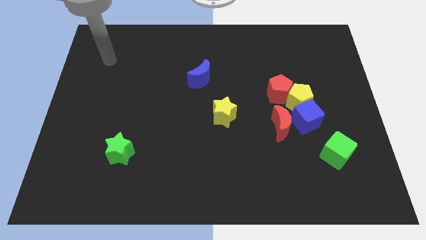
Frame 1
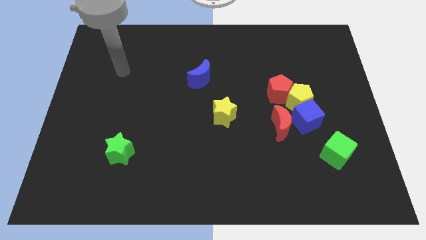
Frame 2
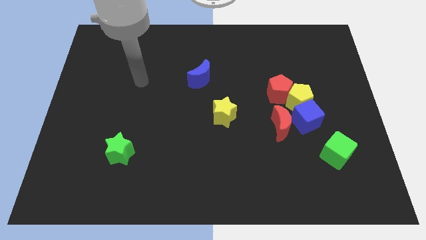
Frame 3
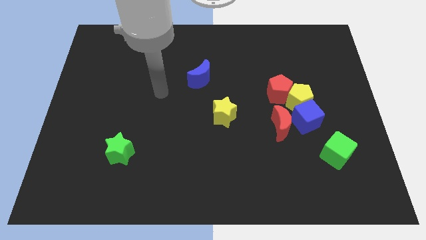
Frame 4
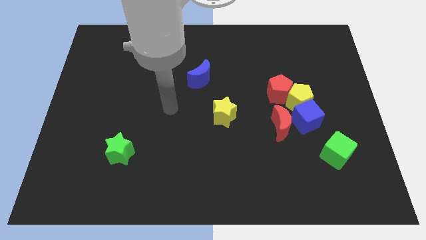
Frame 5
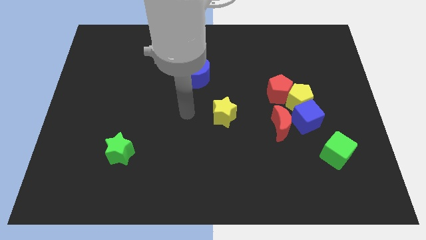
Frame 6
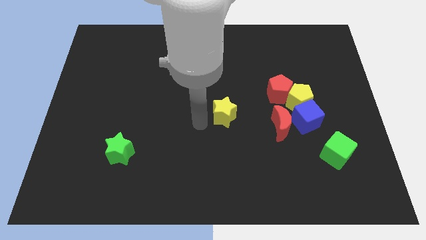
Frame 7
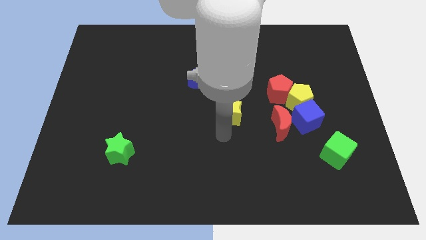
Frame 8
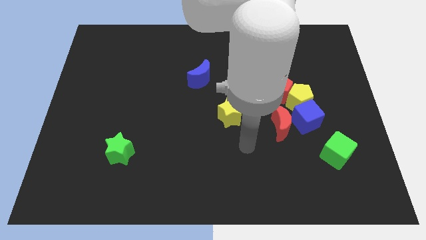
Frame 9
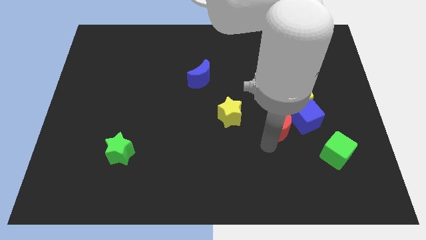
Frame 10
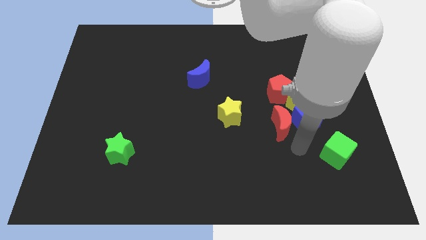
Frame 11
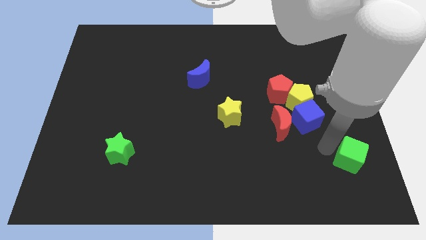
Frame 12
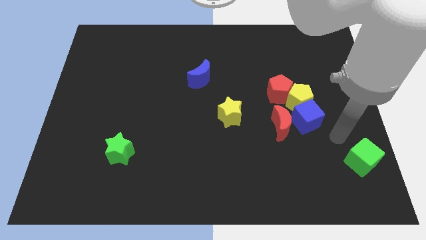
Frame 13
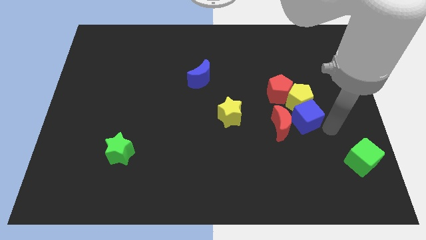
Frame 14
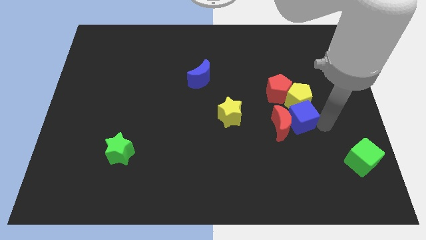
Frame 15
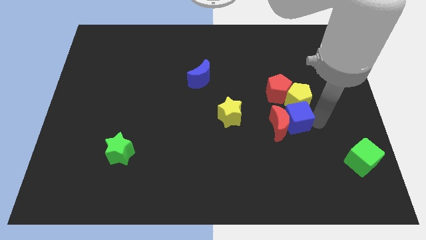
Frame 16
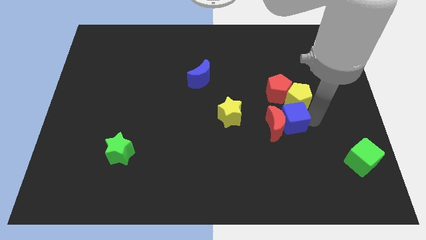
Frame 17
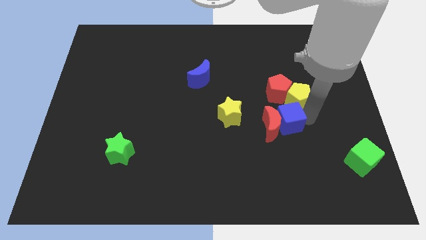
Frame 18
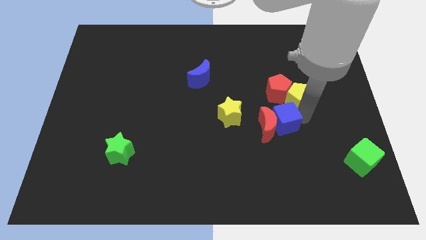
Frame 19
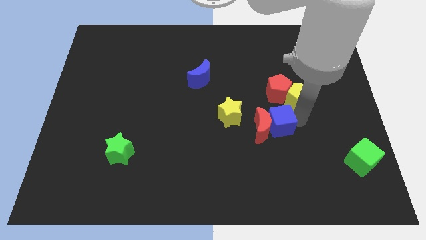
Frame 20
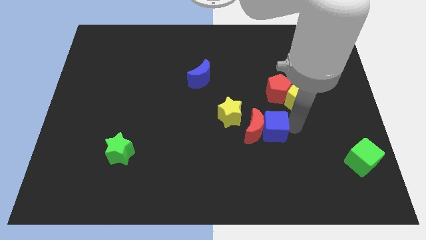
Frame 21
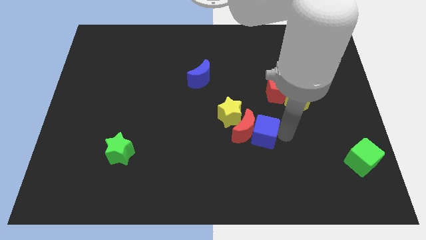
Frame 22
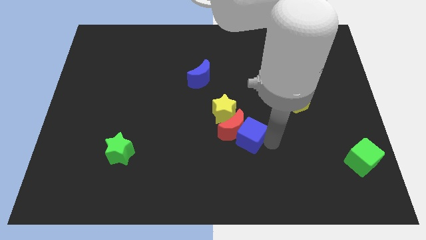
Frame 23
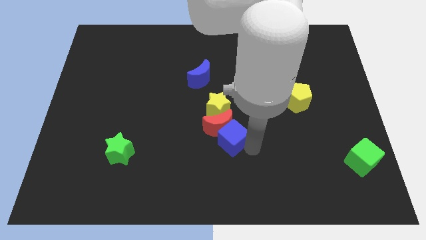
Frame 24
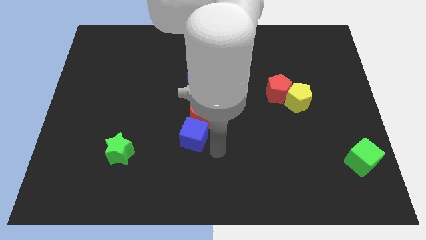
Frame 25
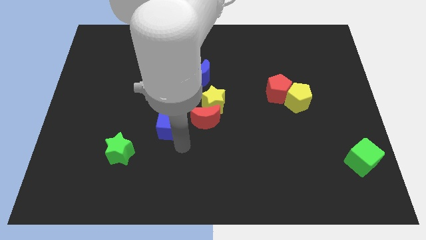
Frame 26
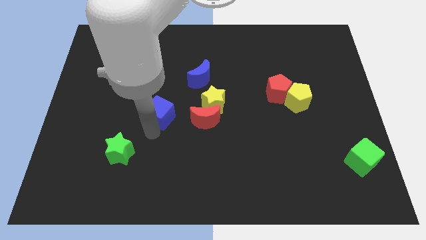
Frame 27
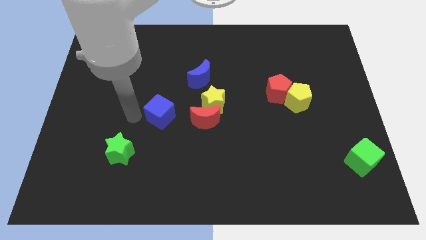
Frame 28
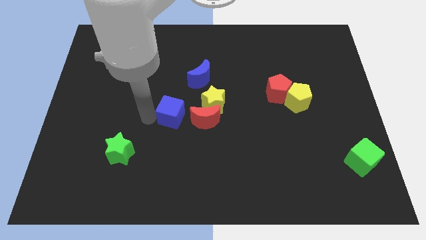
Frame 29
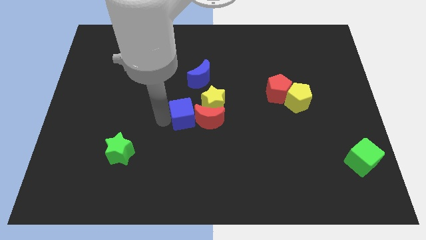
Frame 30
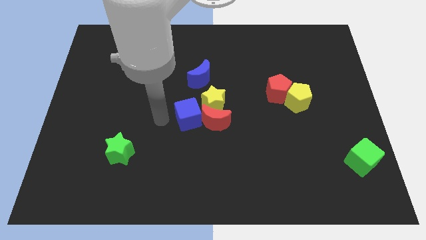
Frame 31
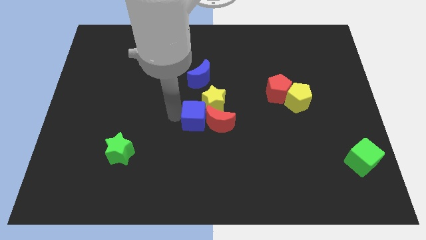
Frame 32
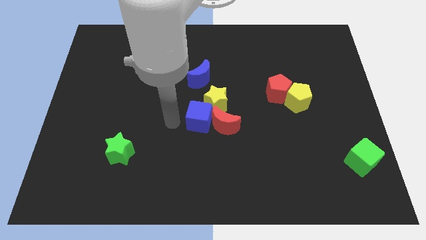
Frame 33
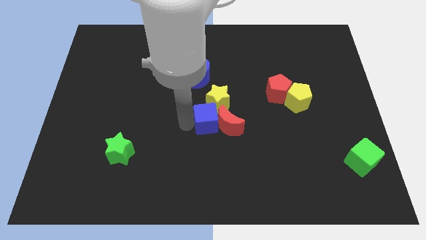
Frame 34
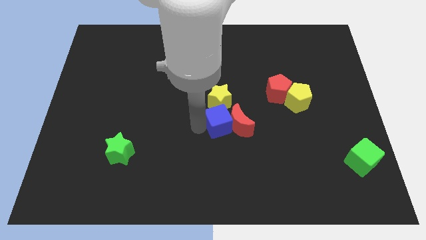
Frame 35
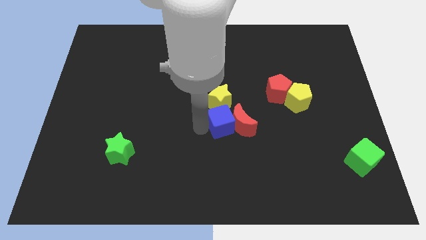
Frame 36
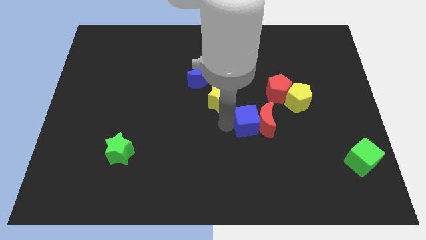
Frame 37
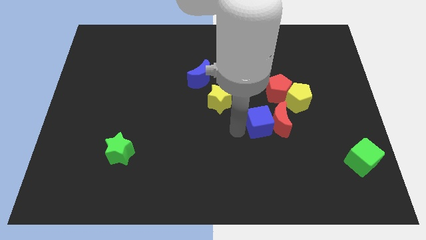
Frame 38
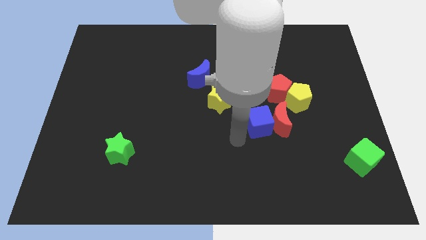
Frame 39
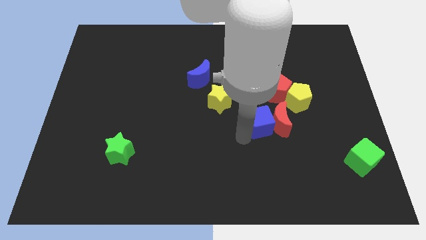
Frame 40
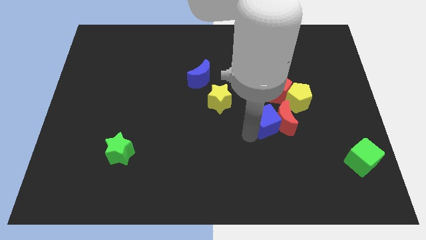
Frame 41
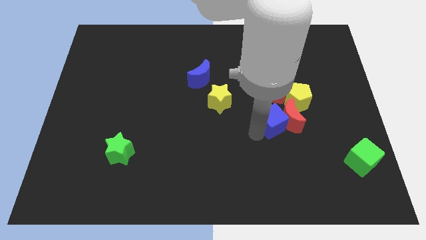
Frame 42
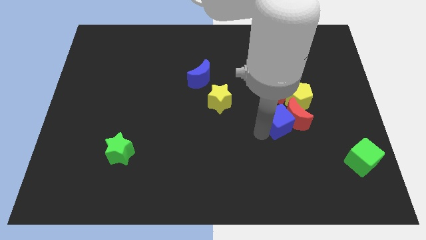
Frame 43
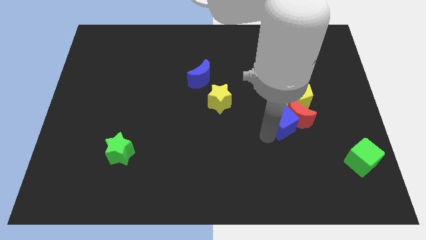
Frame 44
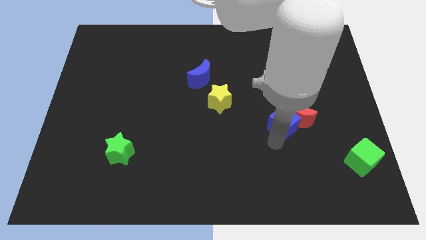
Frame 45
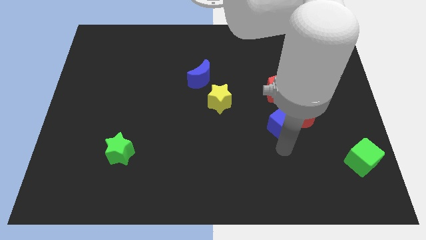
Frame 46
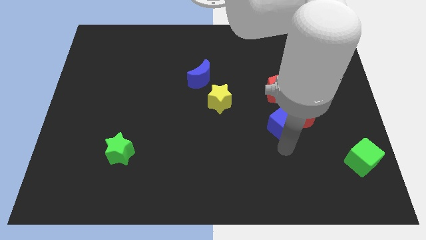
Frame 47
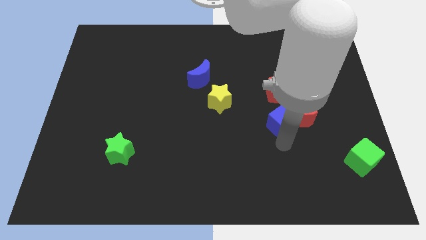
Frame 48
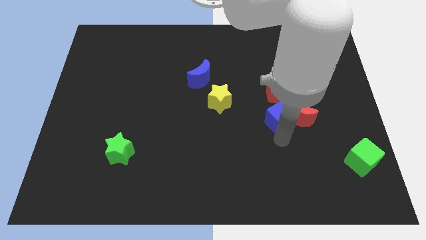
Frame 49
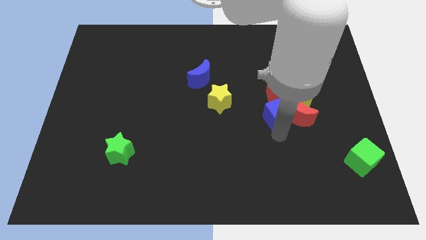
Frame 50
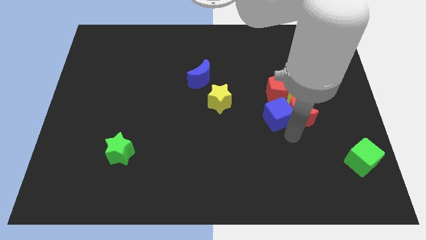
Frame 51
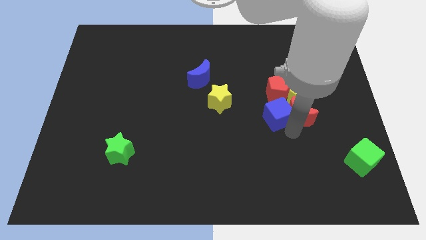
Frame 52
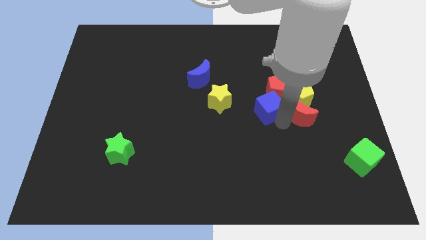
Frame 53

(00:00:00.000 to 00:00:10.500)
slightly push the blue cube upwards and left

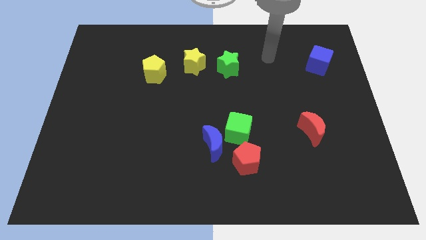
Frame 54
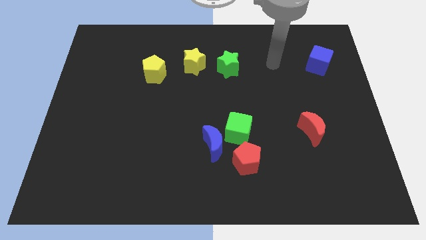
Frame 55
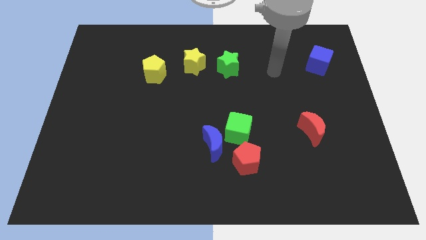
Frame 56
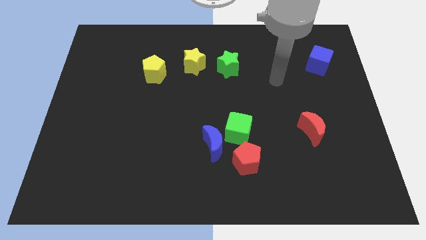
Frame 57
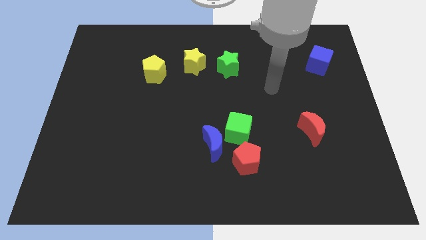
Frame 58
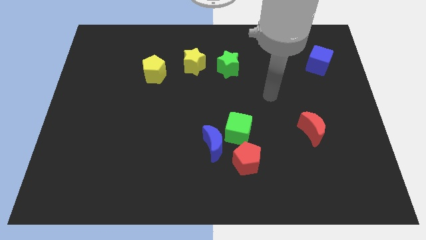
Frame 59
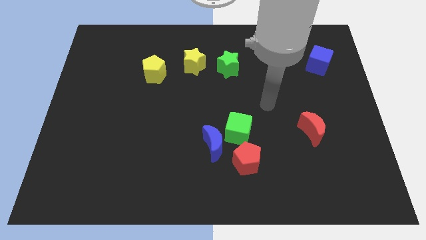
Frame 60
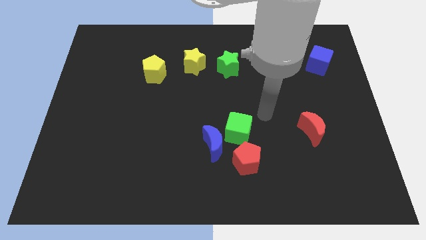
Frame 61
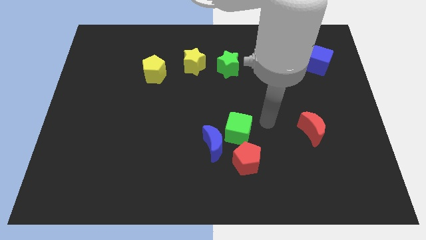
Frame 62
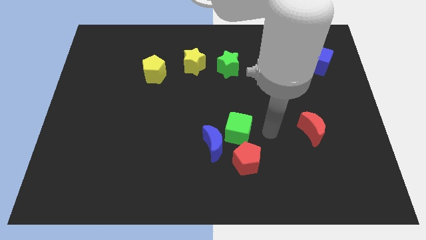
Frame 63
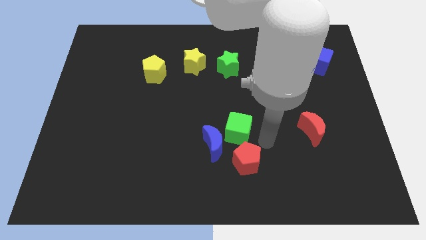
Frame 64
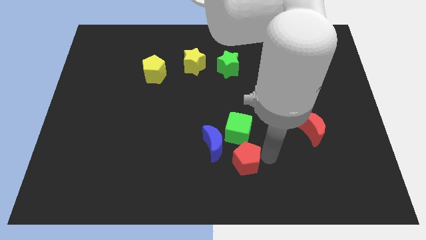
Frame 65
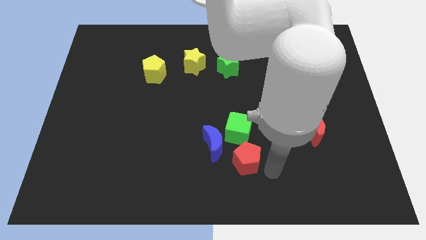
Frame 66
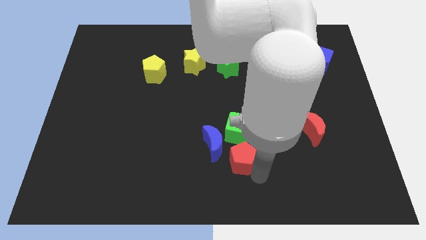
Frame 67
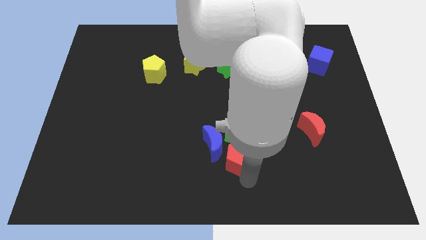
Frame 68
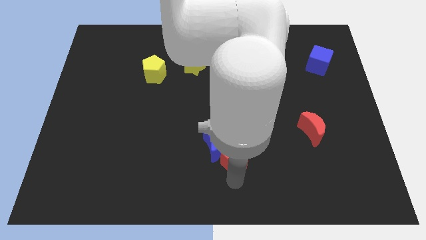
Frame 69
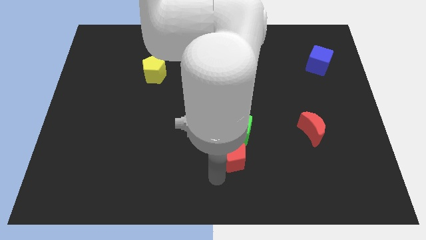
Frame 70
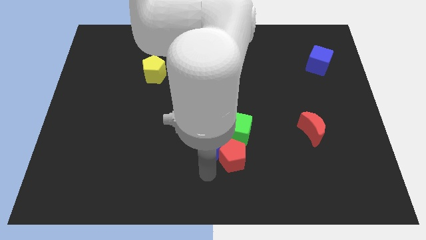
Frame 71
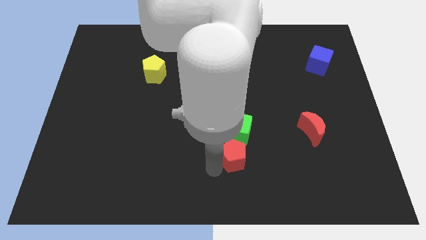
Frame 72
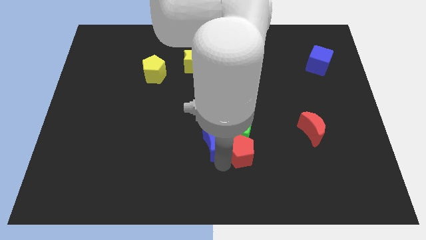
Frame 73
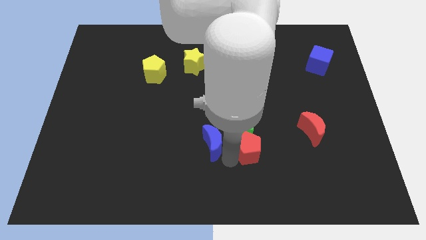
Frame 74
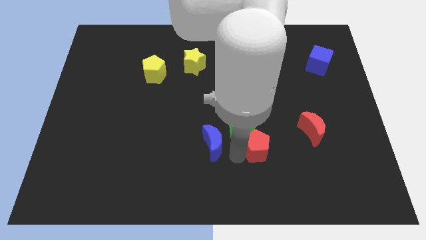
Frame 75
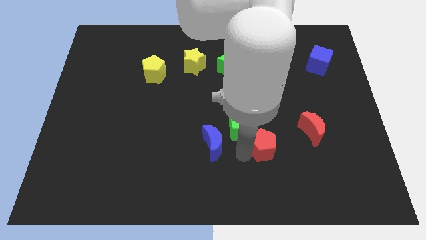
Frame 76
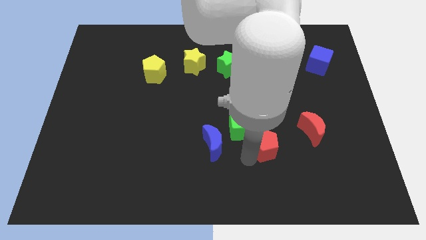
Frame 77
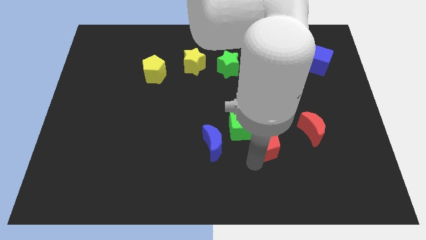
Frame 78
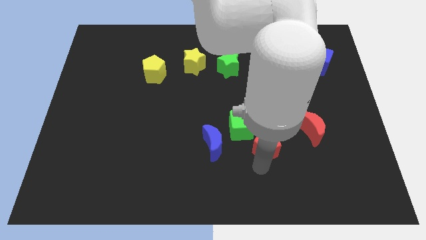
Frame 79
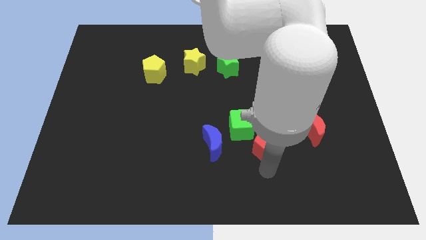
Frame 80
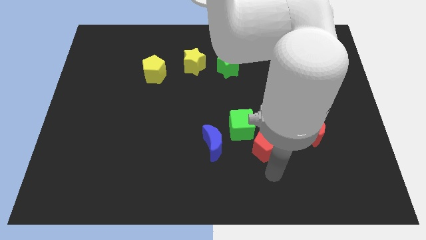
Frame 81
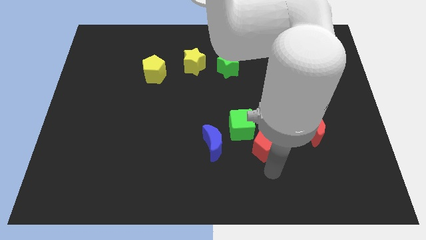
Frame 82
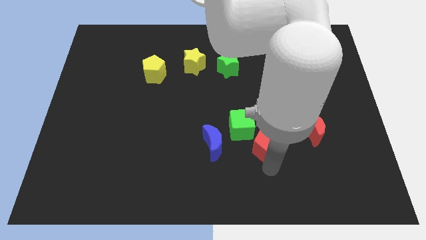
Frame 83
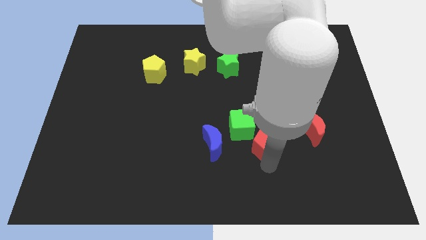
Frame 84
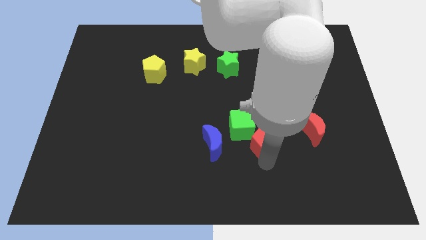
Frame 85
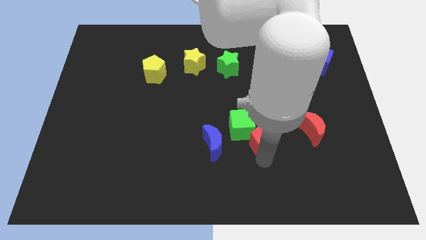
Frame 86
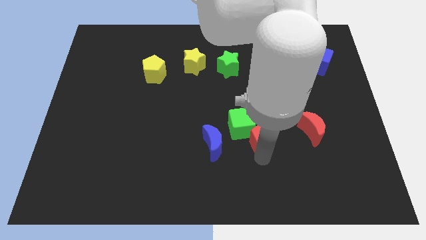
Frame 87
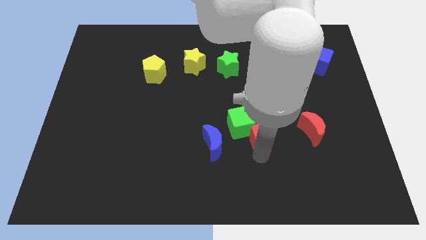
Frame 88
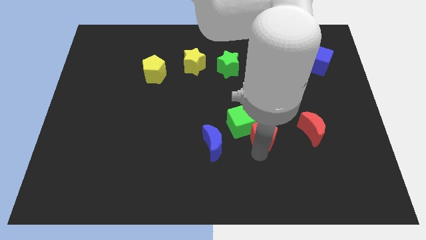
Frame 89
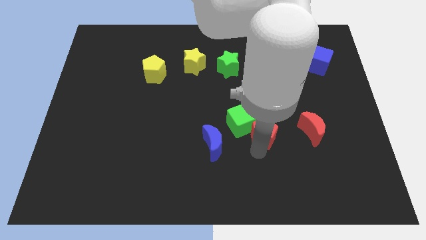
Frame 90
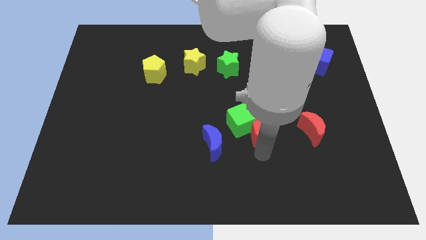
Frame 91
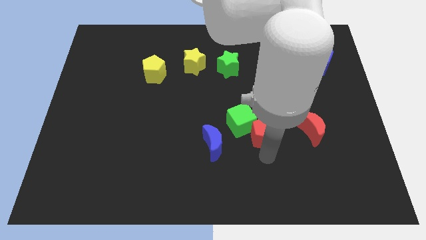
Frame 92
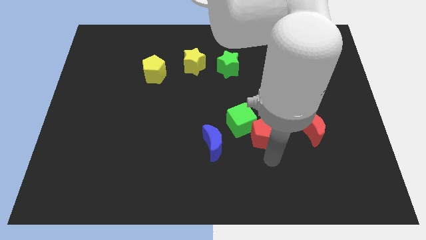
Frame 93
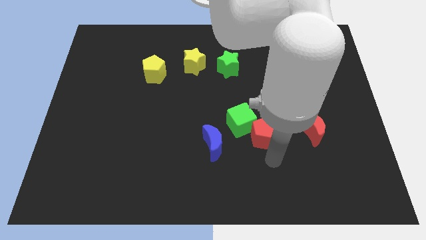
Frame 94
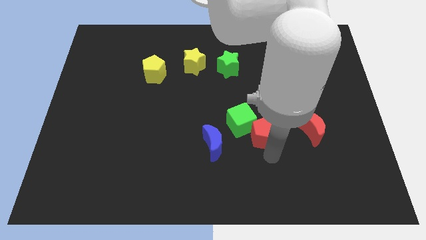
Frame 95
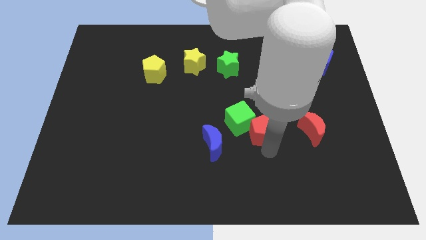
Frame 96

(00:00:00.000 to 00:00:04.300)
slightly slide the red pentagon upwards
